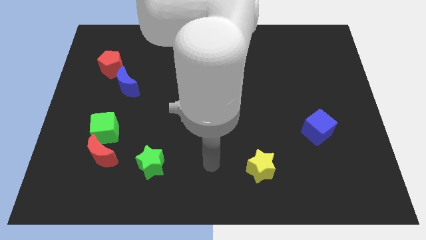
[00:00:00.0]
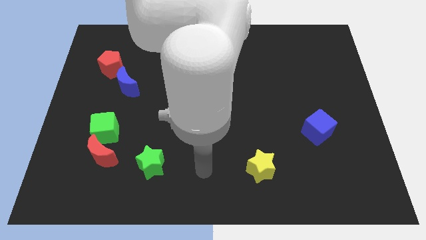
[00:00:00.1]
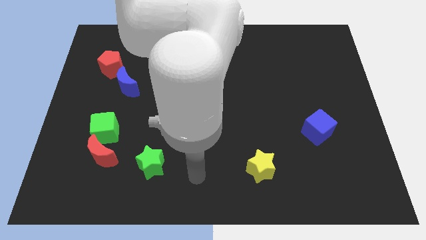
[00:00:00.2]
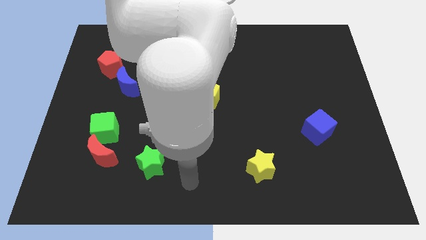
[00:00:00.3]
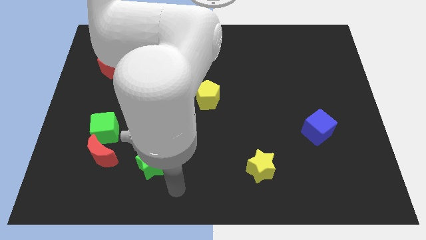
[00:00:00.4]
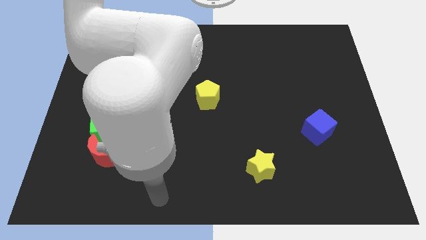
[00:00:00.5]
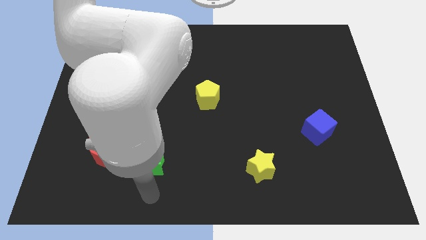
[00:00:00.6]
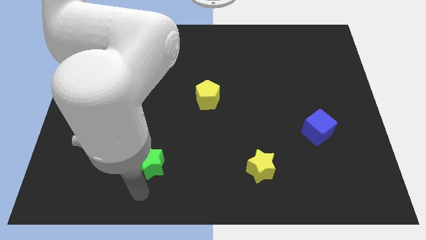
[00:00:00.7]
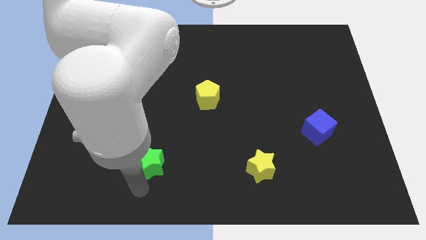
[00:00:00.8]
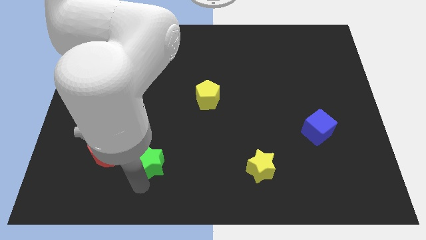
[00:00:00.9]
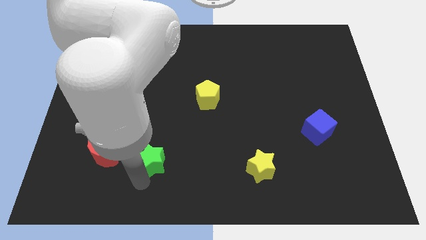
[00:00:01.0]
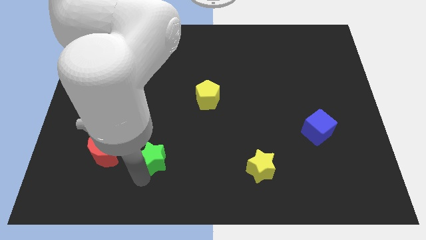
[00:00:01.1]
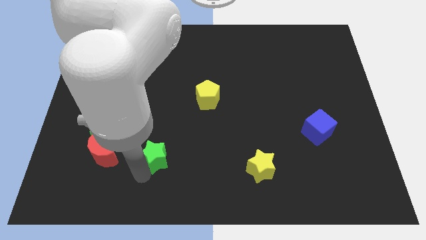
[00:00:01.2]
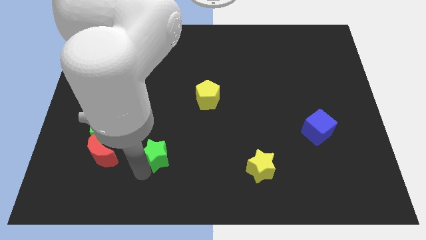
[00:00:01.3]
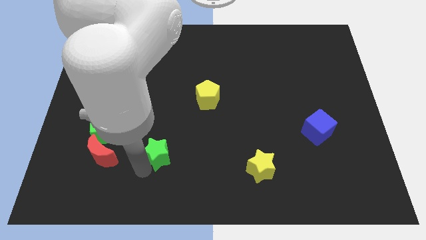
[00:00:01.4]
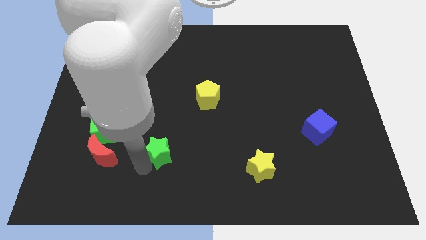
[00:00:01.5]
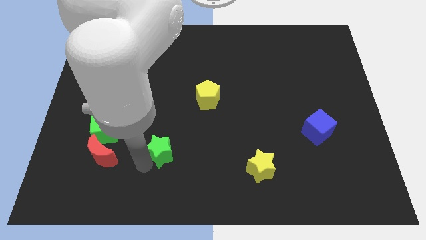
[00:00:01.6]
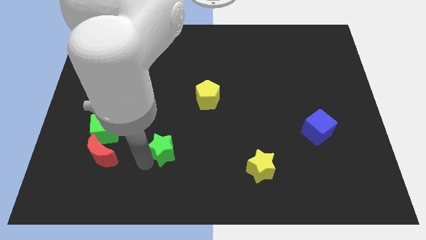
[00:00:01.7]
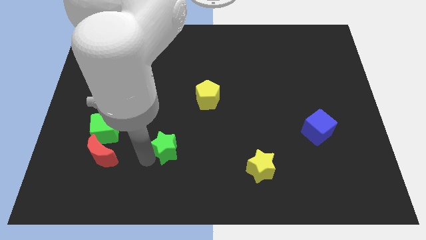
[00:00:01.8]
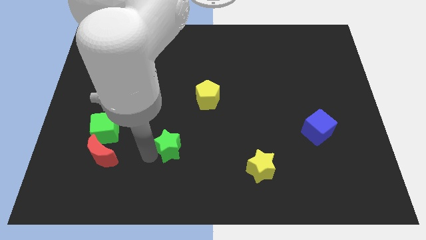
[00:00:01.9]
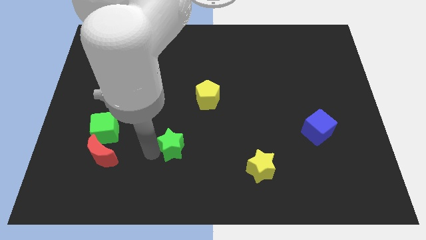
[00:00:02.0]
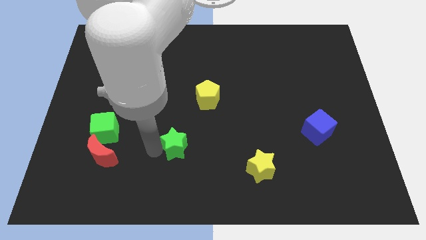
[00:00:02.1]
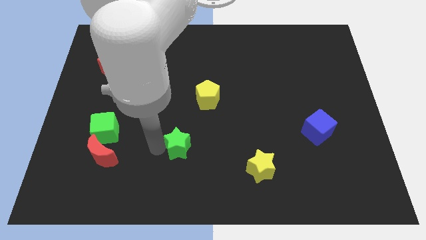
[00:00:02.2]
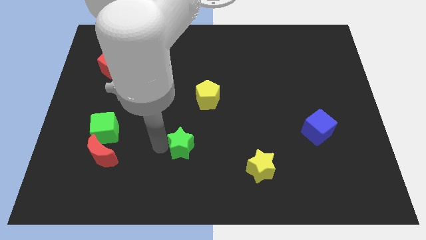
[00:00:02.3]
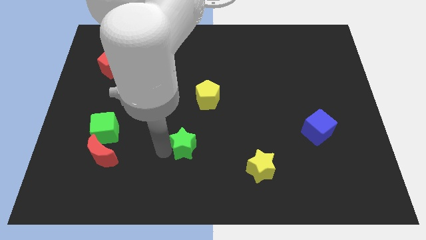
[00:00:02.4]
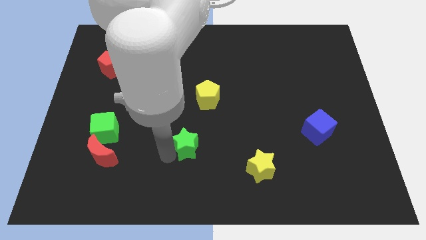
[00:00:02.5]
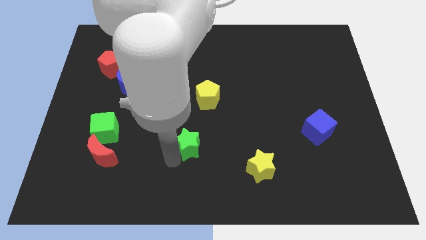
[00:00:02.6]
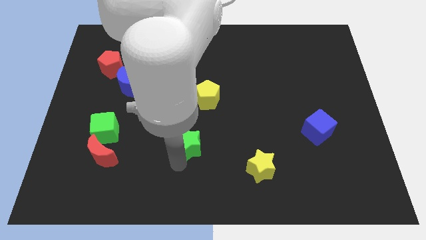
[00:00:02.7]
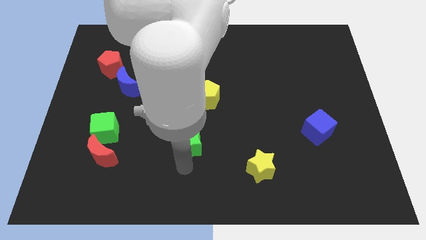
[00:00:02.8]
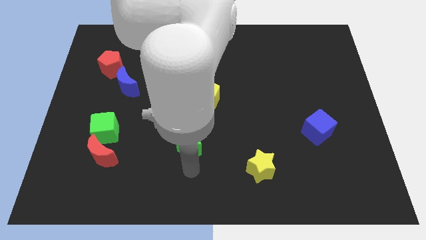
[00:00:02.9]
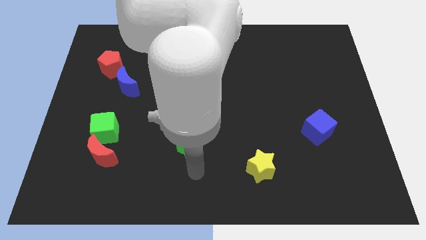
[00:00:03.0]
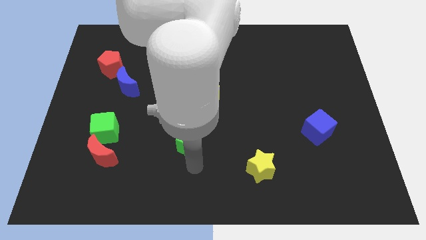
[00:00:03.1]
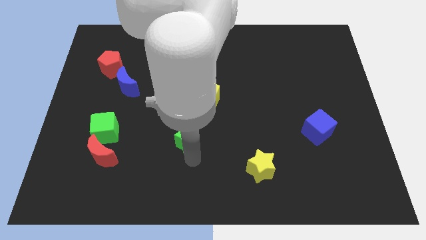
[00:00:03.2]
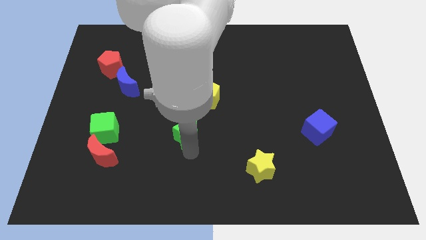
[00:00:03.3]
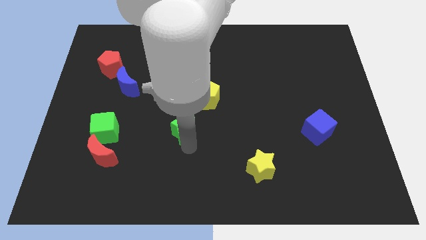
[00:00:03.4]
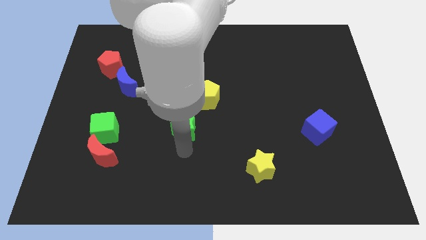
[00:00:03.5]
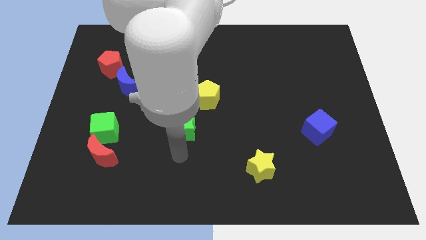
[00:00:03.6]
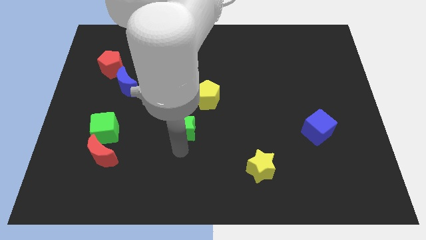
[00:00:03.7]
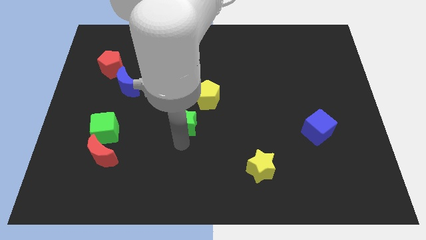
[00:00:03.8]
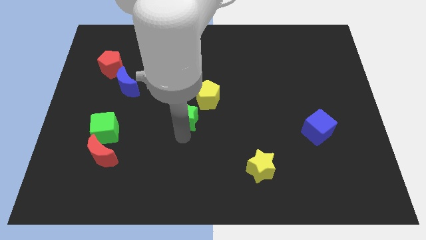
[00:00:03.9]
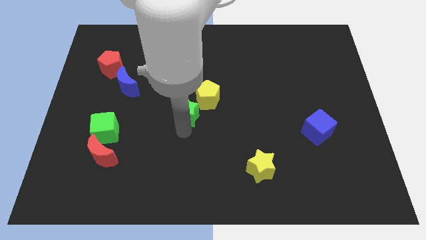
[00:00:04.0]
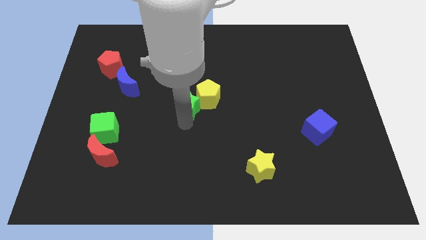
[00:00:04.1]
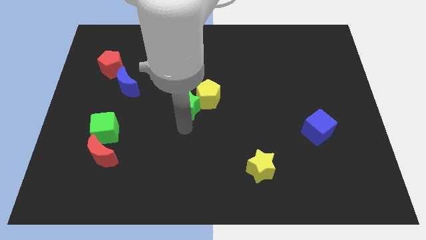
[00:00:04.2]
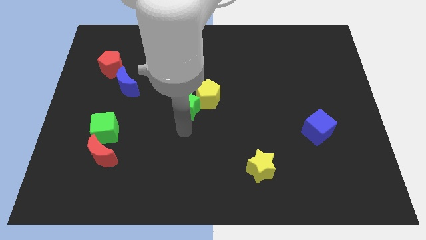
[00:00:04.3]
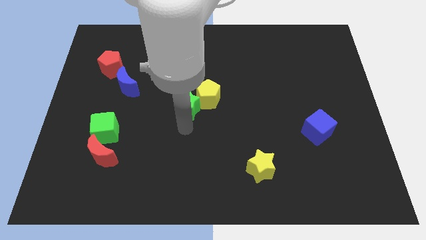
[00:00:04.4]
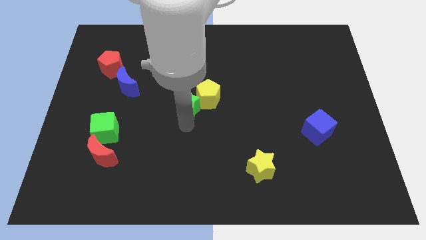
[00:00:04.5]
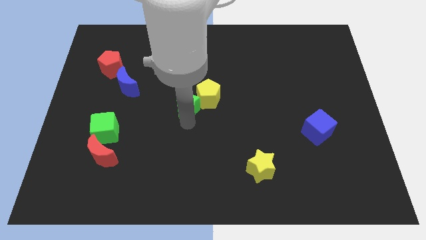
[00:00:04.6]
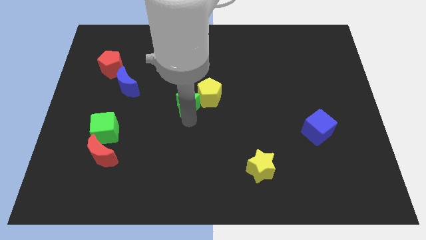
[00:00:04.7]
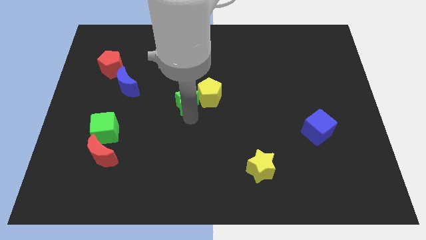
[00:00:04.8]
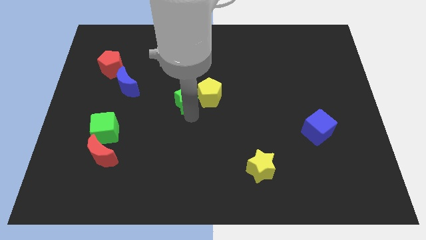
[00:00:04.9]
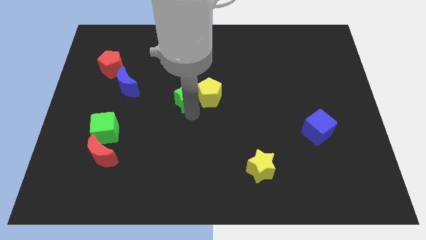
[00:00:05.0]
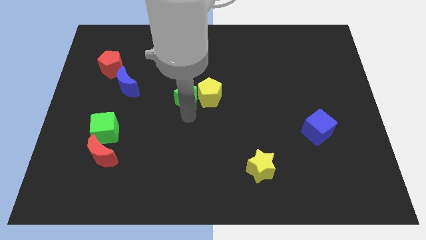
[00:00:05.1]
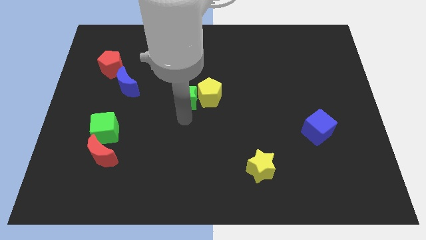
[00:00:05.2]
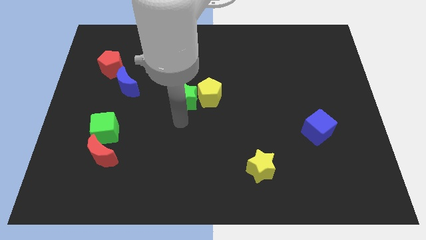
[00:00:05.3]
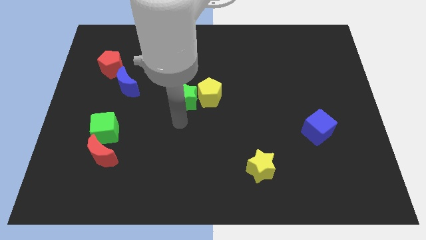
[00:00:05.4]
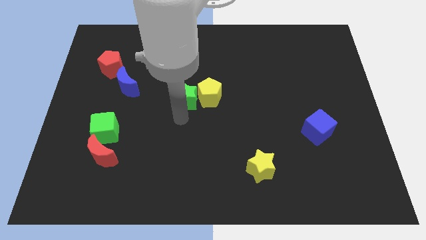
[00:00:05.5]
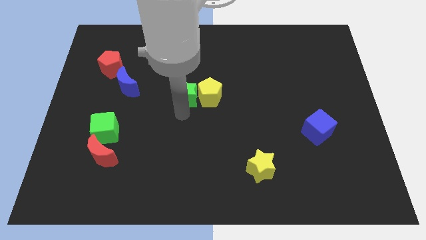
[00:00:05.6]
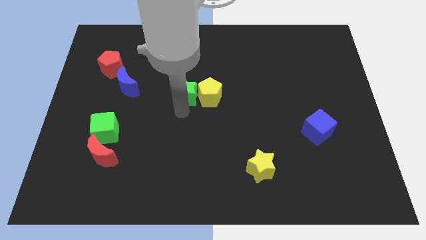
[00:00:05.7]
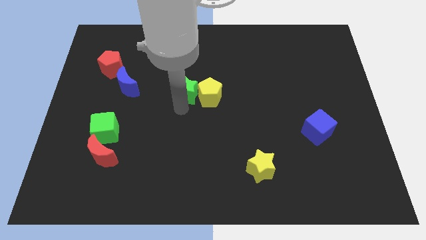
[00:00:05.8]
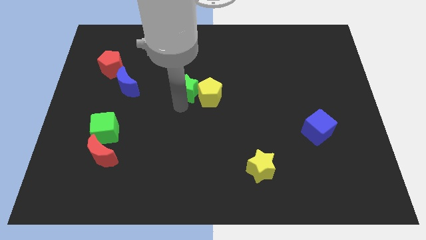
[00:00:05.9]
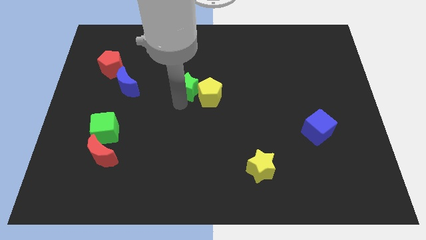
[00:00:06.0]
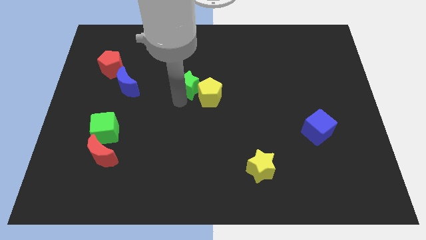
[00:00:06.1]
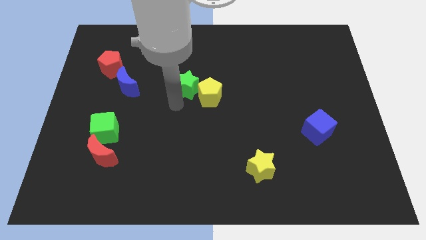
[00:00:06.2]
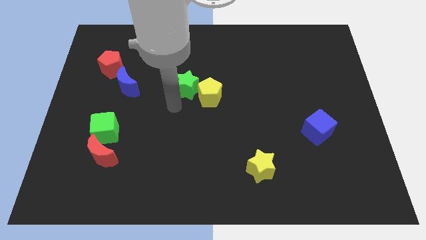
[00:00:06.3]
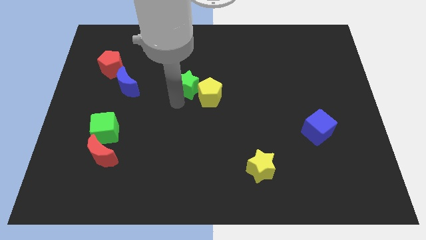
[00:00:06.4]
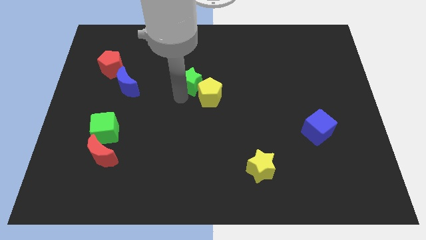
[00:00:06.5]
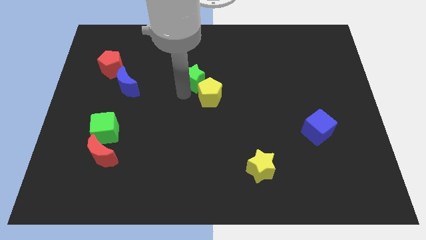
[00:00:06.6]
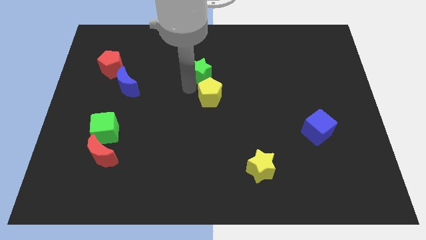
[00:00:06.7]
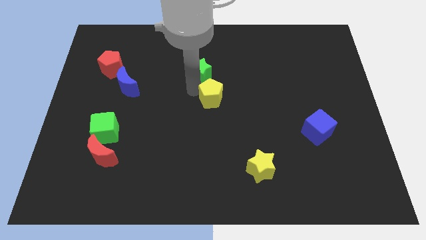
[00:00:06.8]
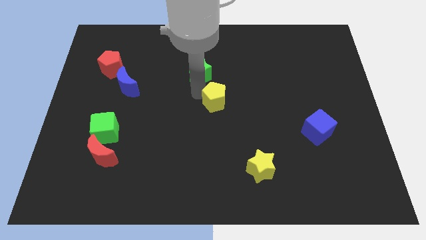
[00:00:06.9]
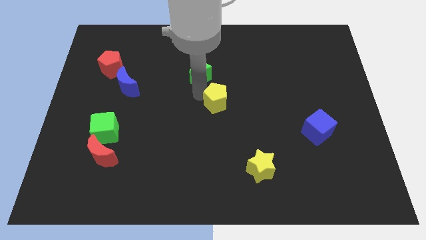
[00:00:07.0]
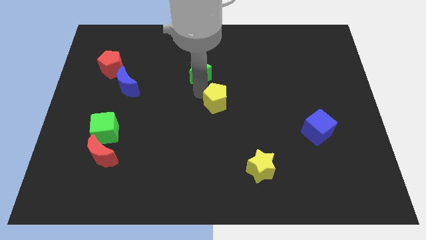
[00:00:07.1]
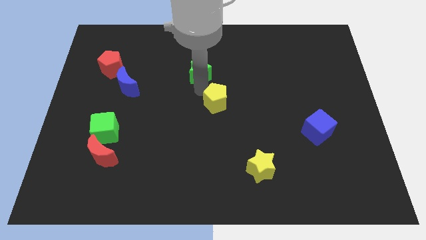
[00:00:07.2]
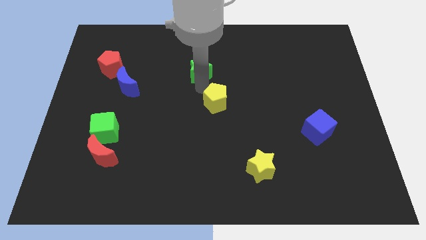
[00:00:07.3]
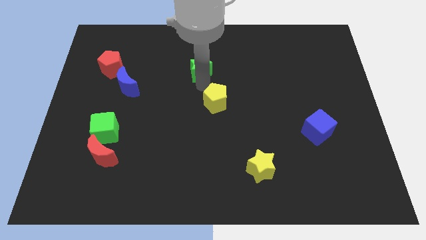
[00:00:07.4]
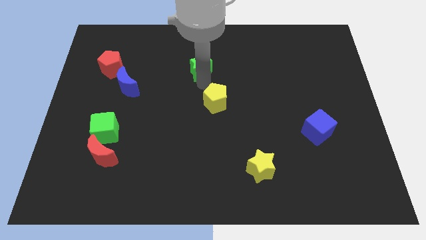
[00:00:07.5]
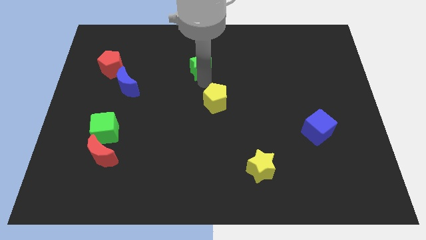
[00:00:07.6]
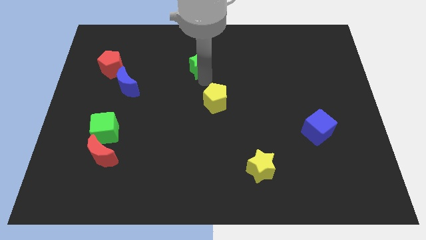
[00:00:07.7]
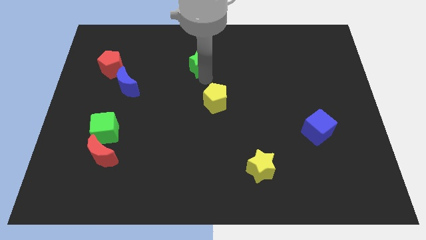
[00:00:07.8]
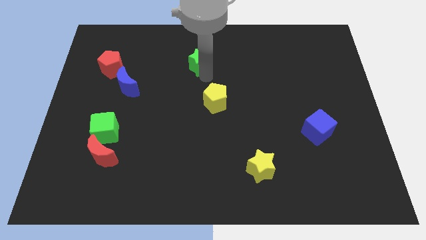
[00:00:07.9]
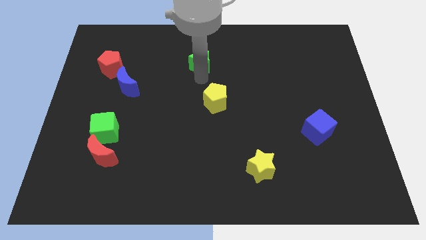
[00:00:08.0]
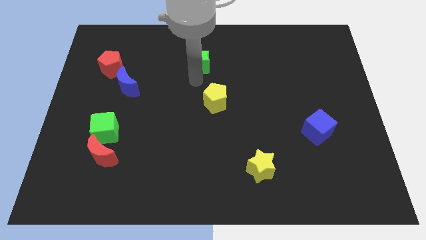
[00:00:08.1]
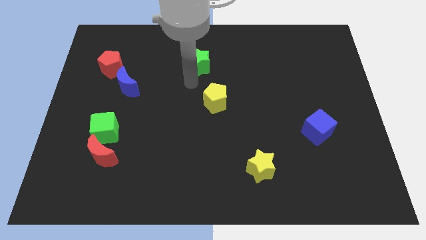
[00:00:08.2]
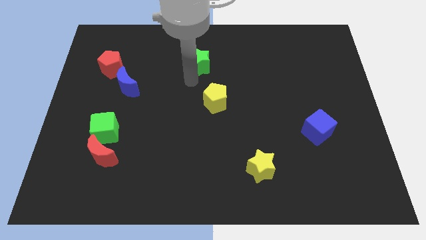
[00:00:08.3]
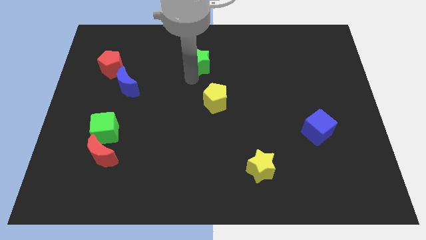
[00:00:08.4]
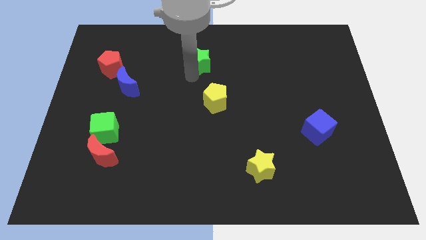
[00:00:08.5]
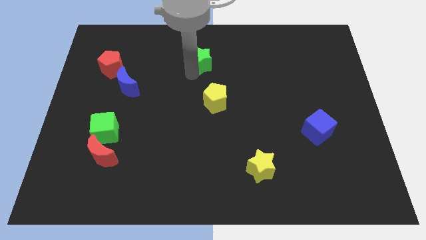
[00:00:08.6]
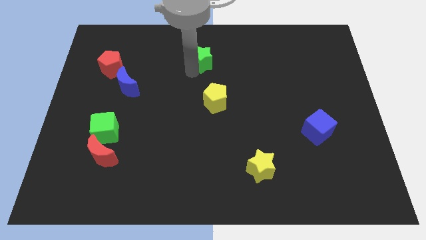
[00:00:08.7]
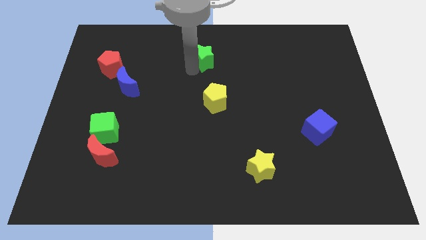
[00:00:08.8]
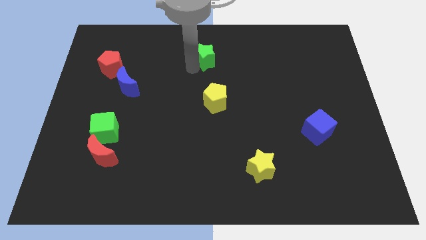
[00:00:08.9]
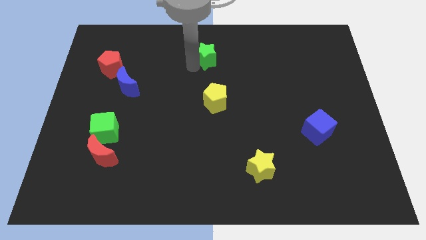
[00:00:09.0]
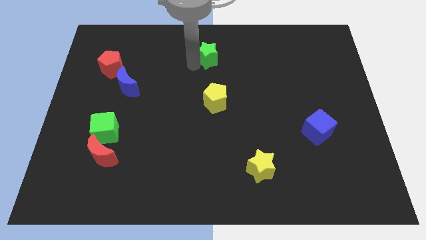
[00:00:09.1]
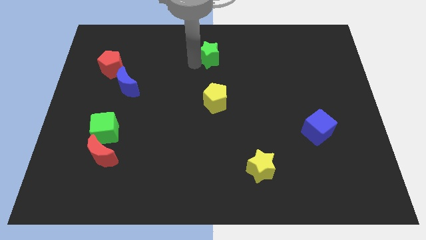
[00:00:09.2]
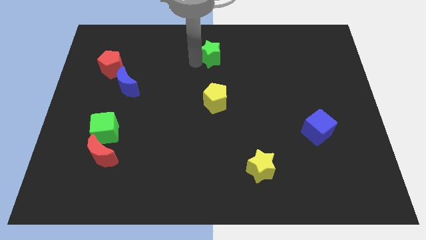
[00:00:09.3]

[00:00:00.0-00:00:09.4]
put the green star to the towards your base
